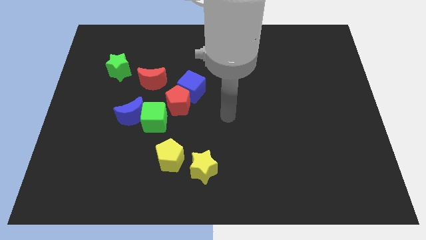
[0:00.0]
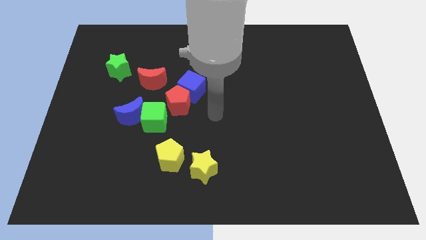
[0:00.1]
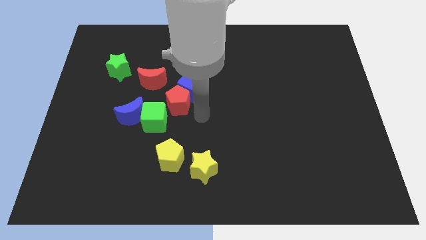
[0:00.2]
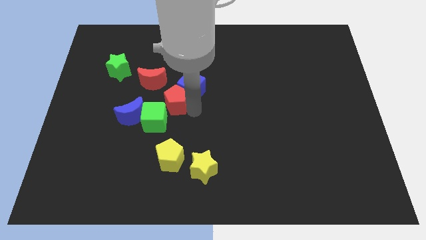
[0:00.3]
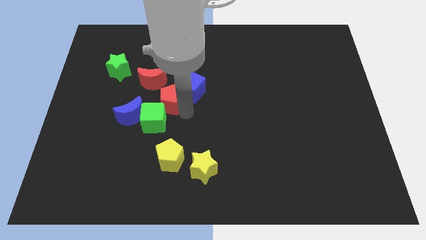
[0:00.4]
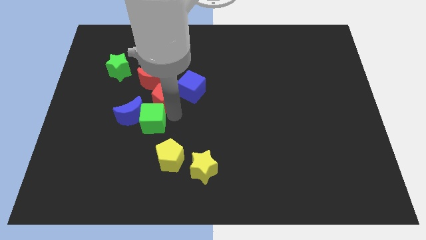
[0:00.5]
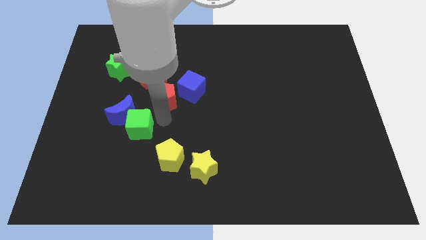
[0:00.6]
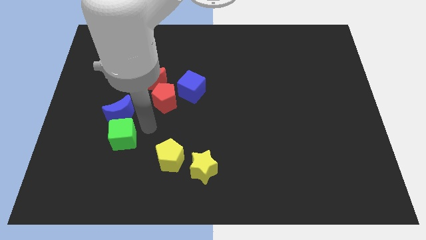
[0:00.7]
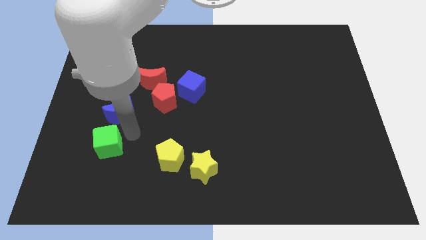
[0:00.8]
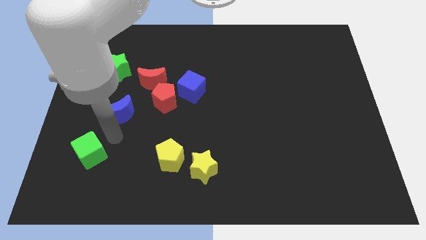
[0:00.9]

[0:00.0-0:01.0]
separate the blue moon from the green cube

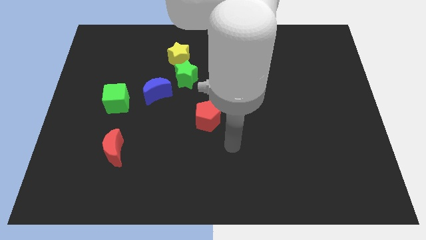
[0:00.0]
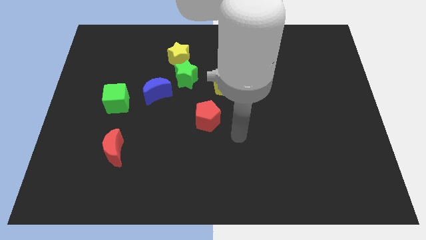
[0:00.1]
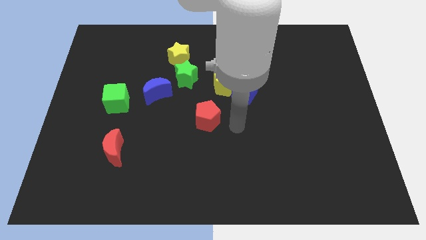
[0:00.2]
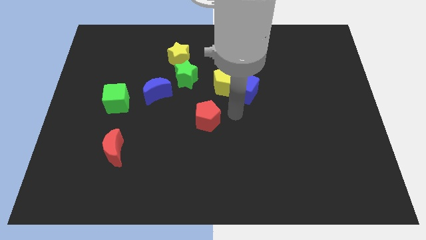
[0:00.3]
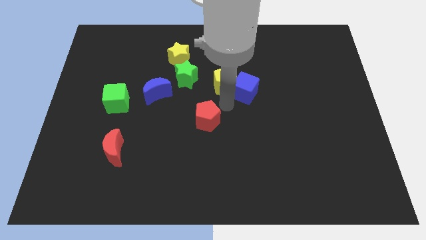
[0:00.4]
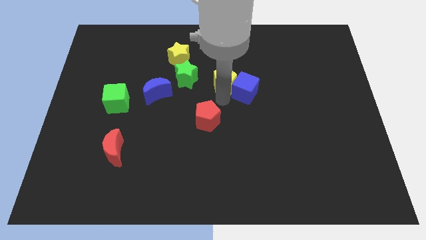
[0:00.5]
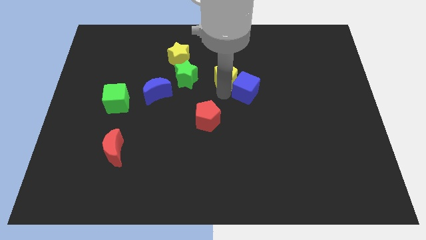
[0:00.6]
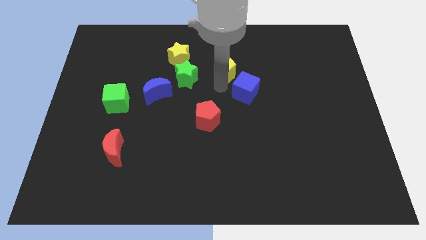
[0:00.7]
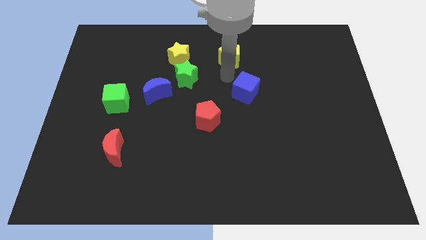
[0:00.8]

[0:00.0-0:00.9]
move the blue cube away from the yellow pentagon

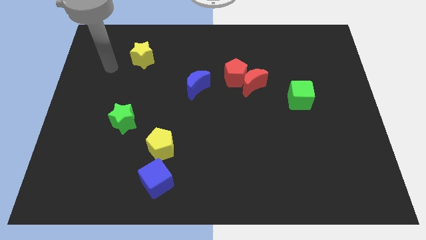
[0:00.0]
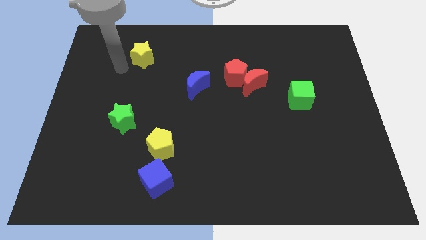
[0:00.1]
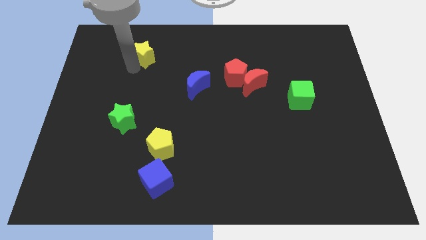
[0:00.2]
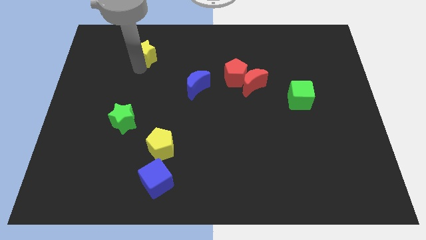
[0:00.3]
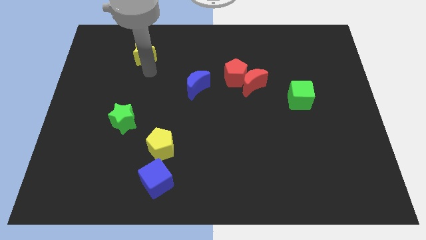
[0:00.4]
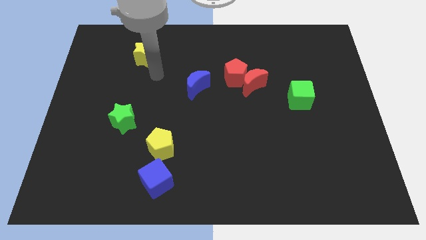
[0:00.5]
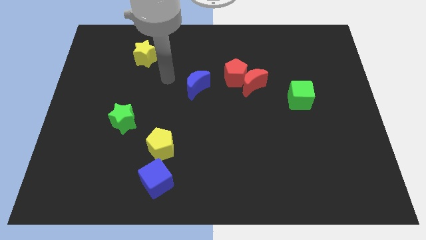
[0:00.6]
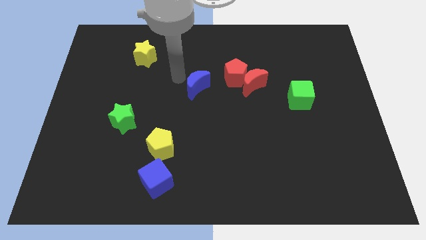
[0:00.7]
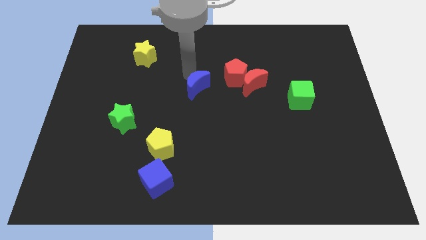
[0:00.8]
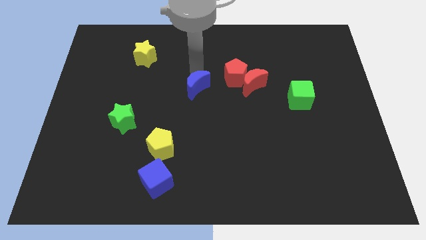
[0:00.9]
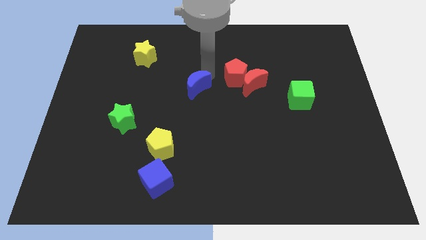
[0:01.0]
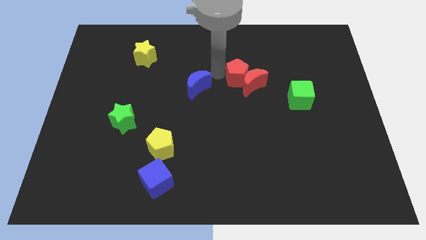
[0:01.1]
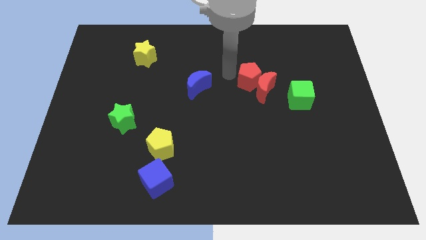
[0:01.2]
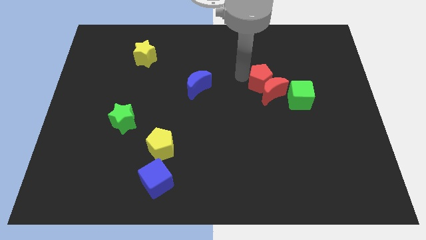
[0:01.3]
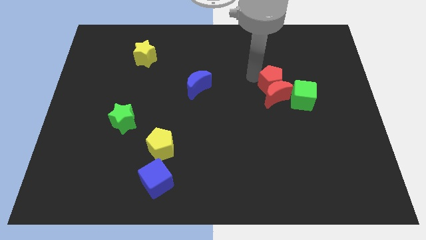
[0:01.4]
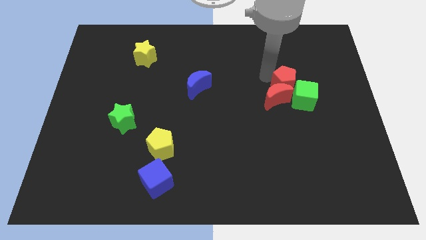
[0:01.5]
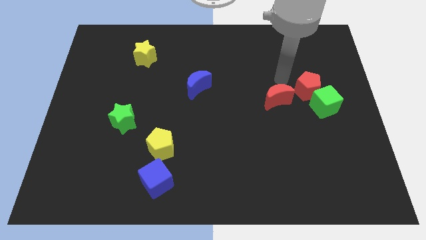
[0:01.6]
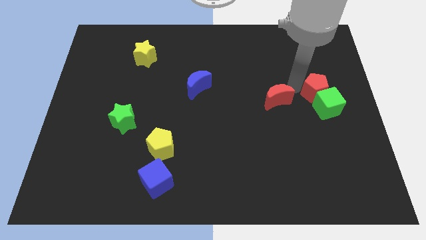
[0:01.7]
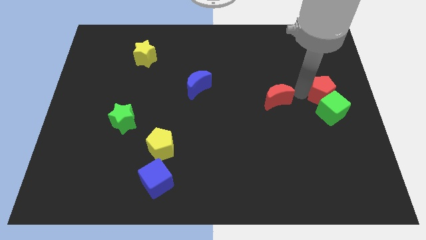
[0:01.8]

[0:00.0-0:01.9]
move the red moon away from the red pentagon

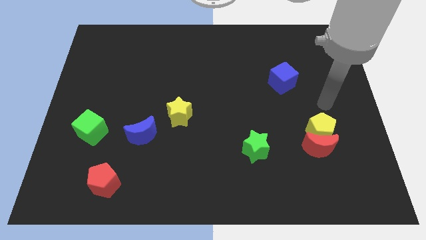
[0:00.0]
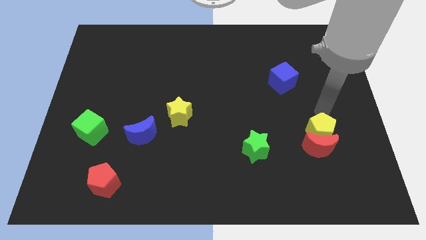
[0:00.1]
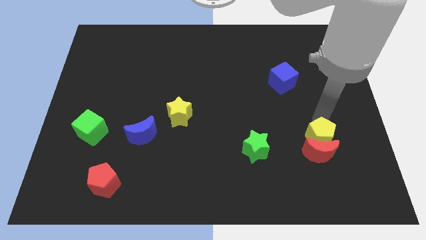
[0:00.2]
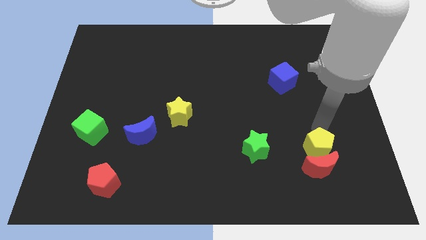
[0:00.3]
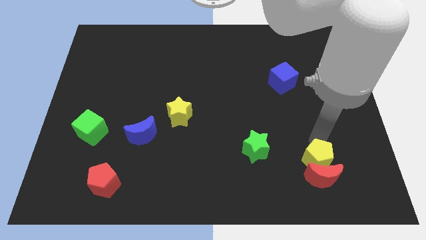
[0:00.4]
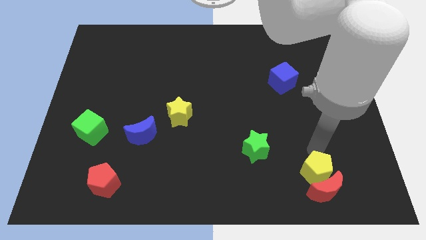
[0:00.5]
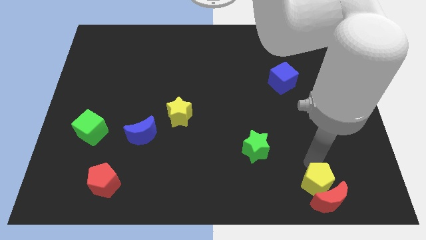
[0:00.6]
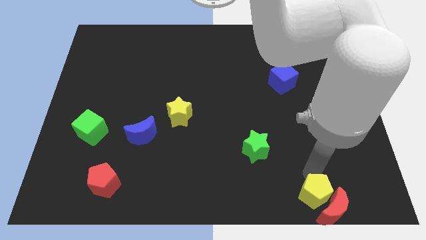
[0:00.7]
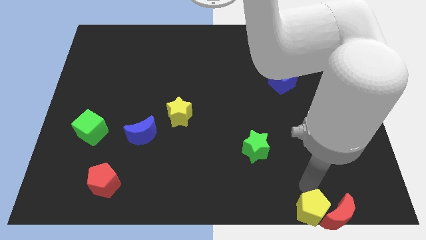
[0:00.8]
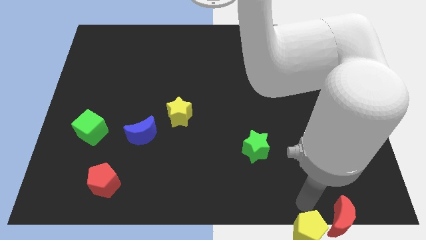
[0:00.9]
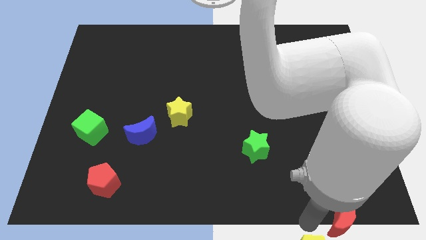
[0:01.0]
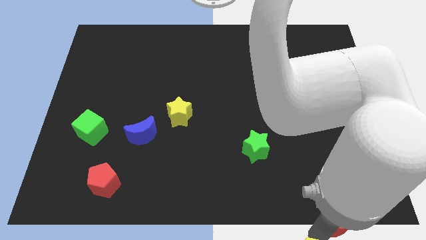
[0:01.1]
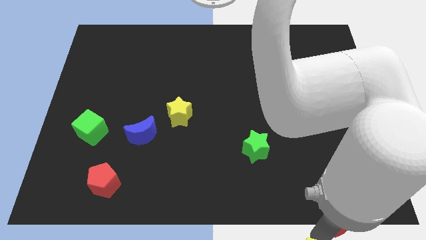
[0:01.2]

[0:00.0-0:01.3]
move the red moon away from the yellow pentagon

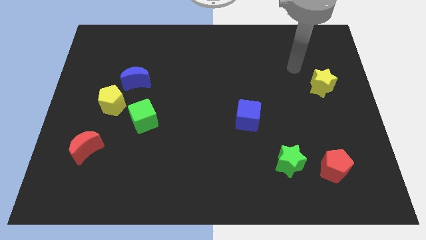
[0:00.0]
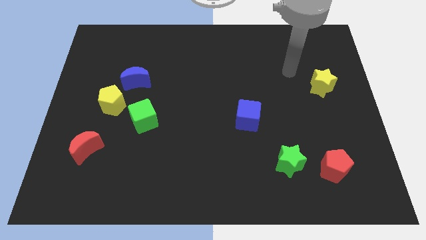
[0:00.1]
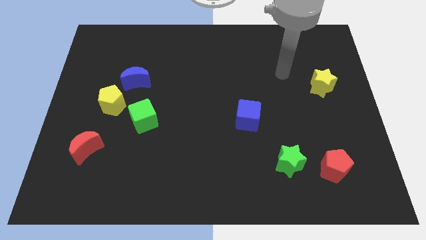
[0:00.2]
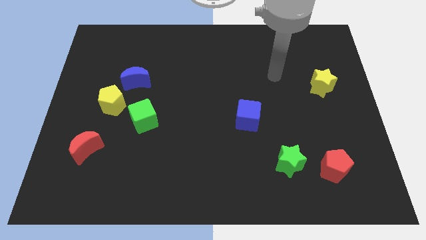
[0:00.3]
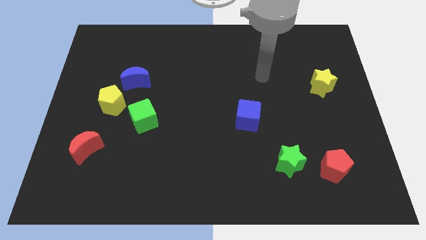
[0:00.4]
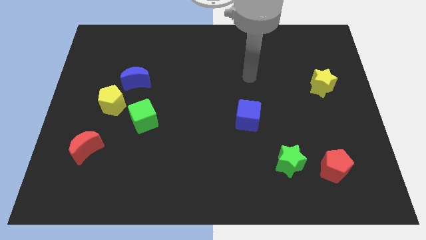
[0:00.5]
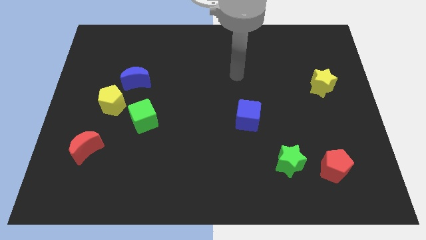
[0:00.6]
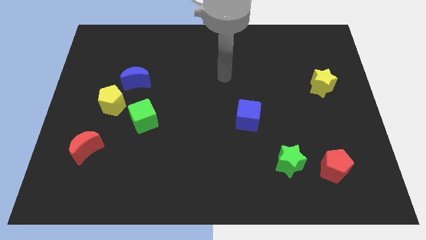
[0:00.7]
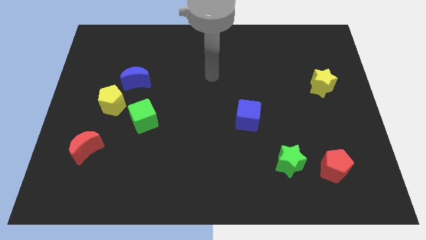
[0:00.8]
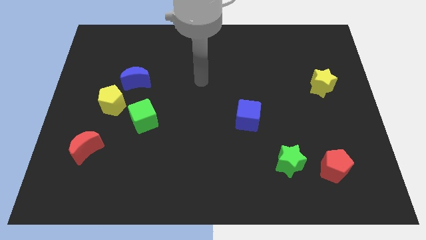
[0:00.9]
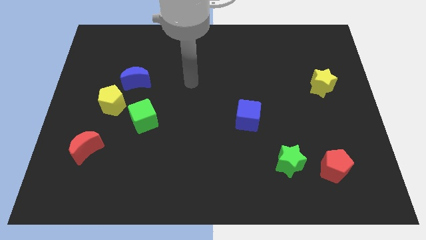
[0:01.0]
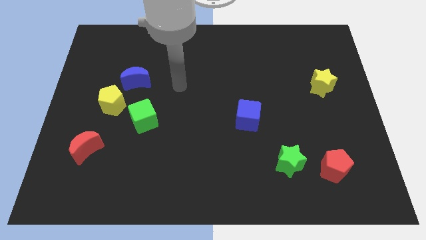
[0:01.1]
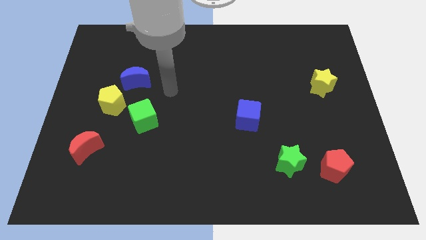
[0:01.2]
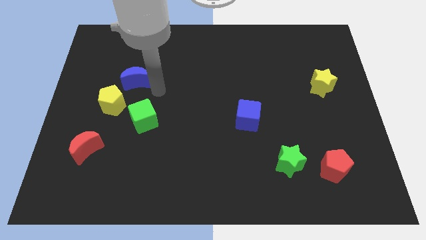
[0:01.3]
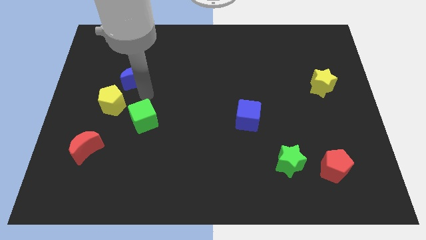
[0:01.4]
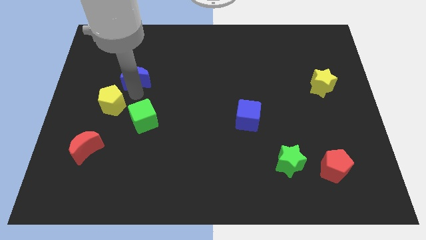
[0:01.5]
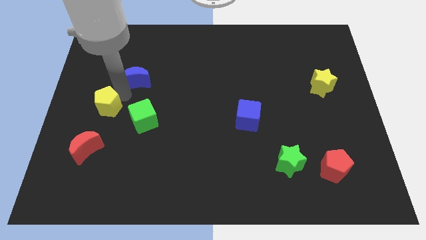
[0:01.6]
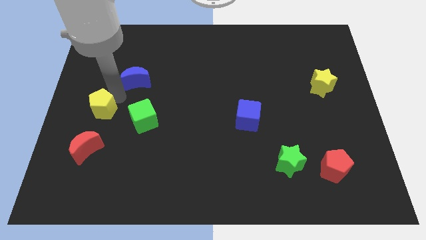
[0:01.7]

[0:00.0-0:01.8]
separate the blue moon from the yellow pentagon

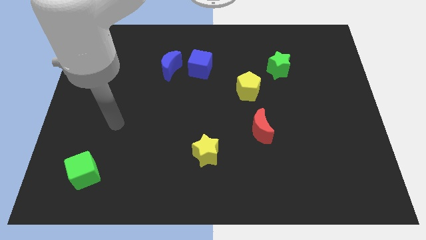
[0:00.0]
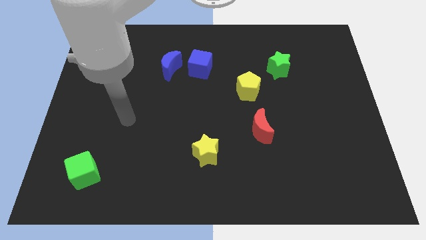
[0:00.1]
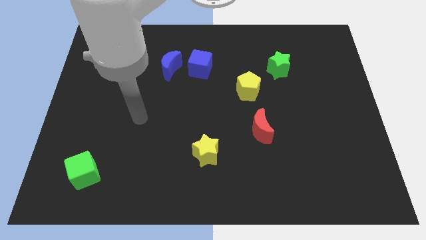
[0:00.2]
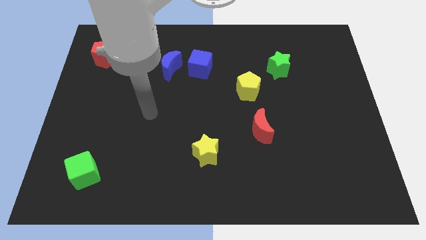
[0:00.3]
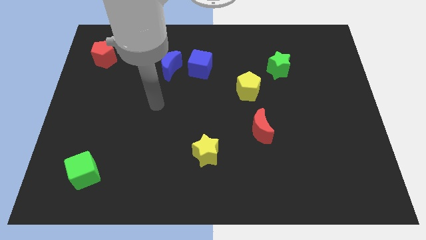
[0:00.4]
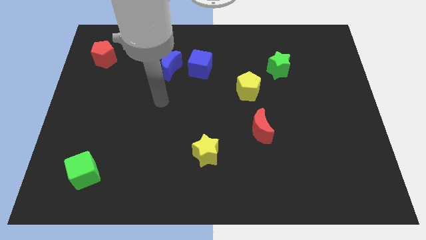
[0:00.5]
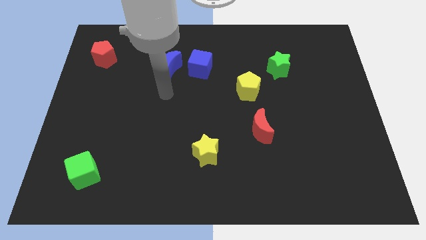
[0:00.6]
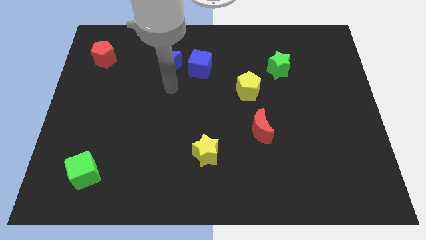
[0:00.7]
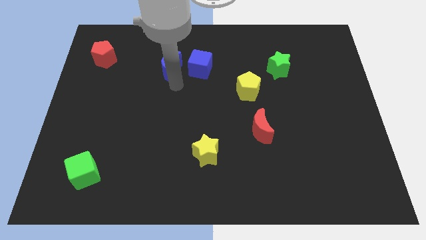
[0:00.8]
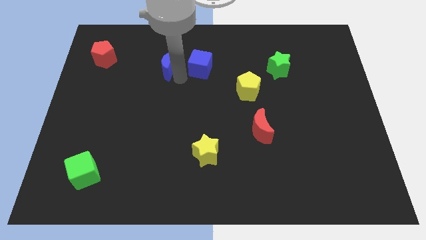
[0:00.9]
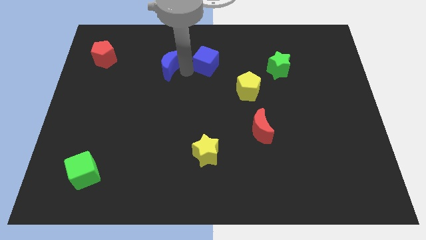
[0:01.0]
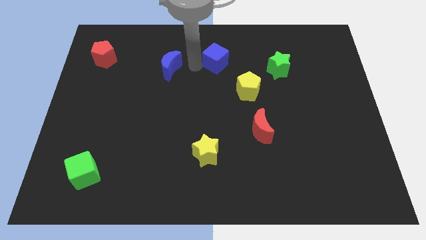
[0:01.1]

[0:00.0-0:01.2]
separate the blue moon from the blue cube

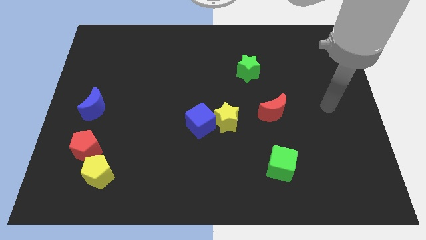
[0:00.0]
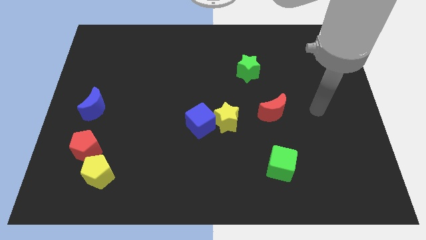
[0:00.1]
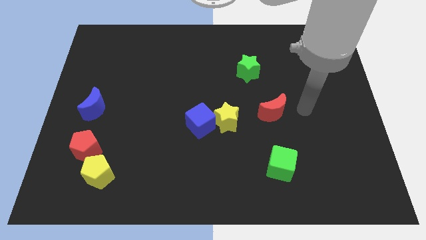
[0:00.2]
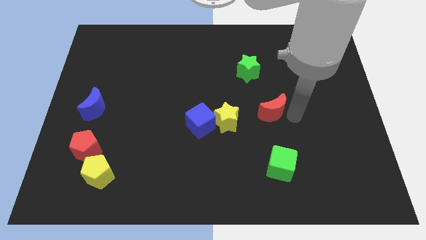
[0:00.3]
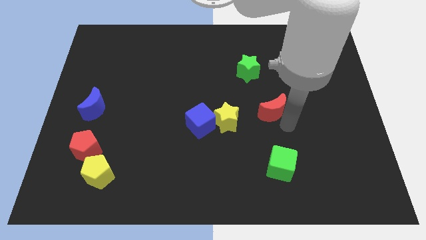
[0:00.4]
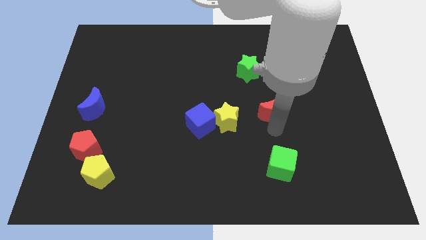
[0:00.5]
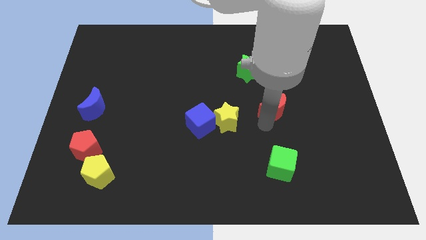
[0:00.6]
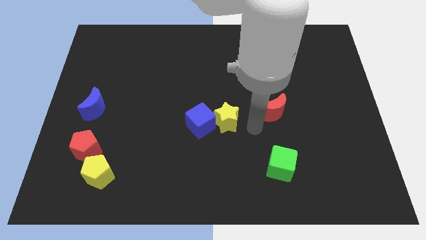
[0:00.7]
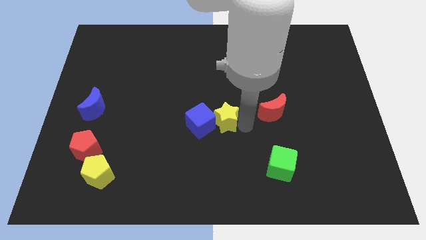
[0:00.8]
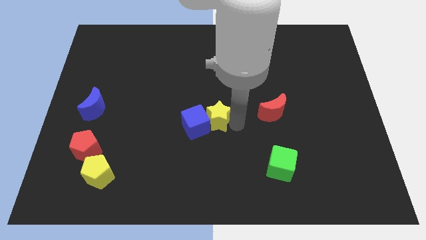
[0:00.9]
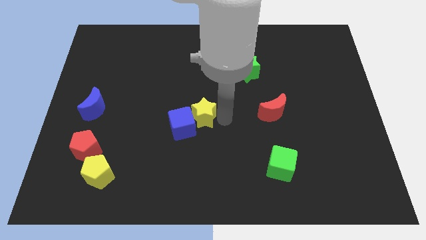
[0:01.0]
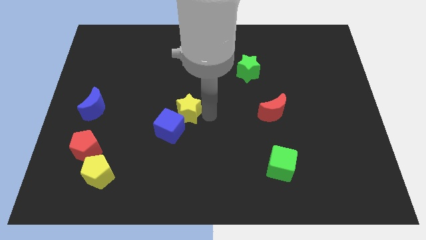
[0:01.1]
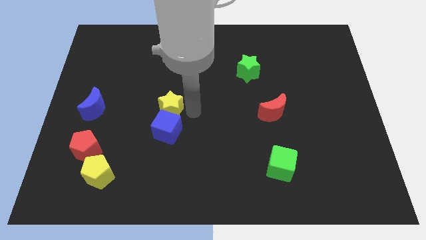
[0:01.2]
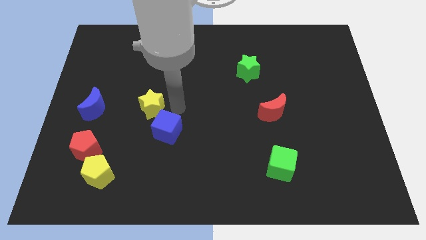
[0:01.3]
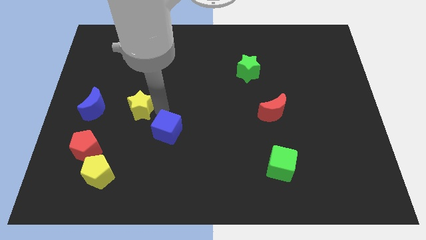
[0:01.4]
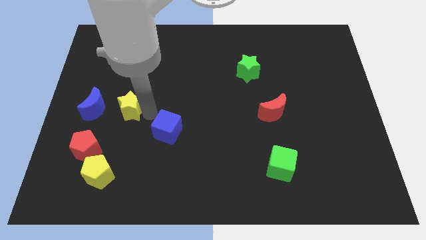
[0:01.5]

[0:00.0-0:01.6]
pull the blue cube apart from the yellow star
